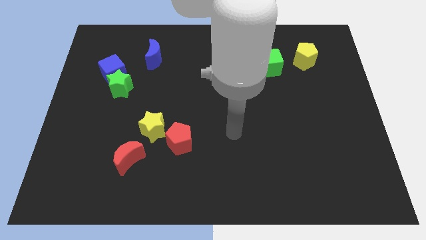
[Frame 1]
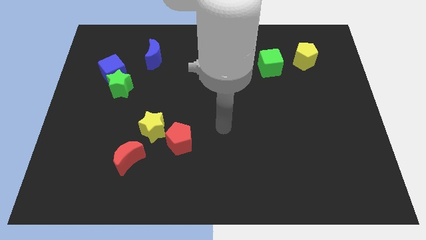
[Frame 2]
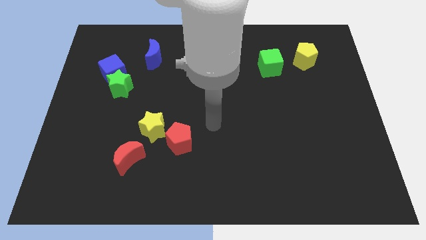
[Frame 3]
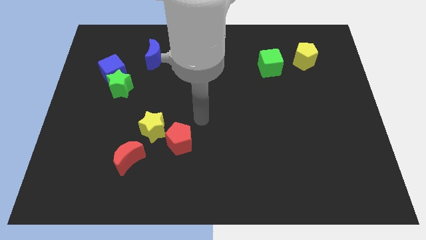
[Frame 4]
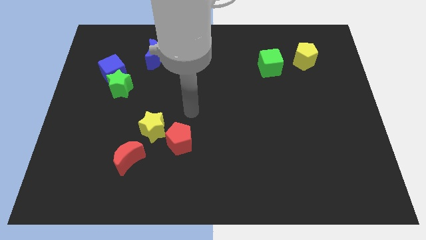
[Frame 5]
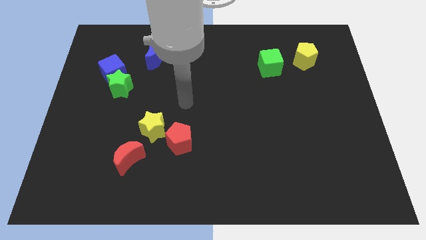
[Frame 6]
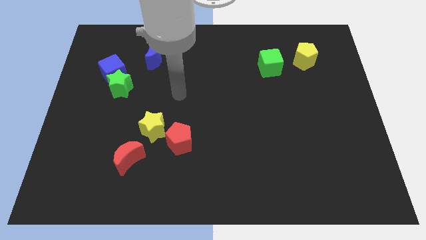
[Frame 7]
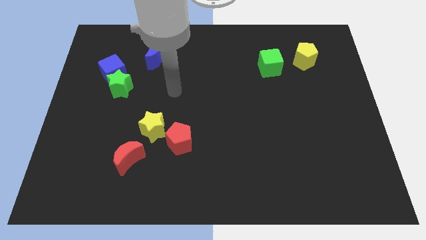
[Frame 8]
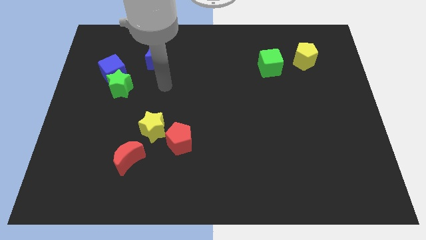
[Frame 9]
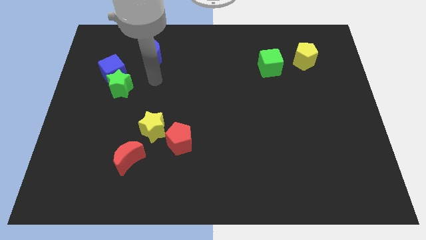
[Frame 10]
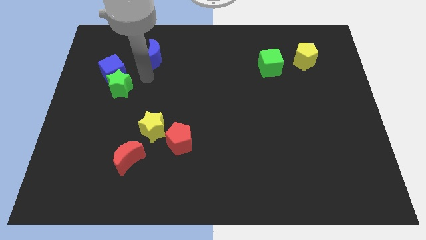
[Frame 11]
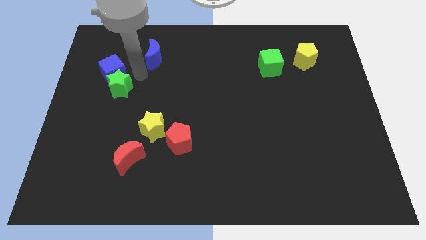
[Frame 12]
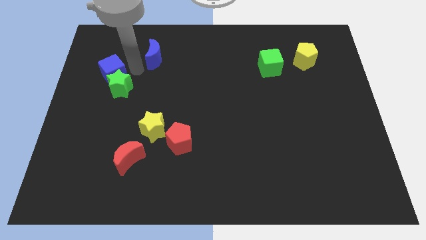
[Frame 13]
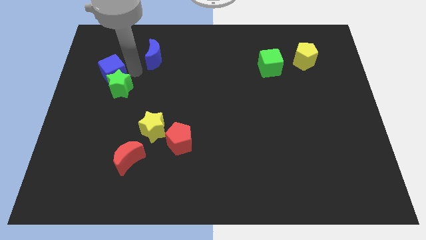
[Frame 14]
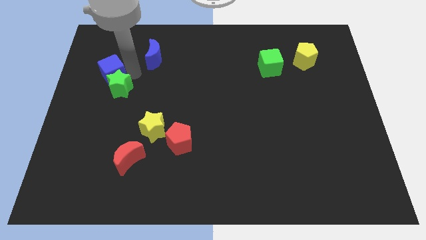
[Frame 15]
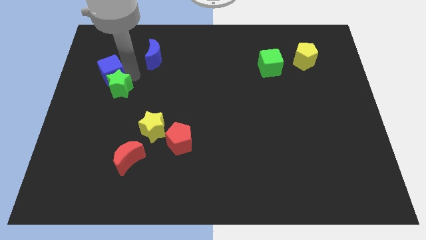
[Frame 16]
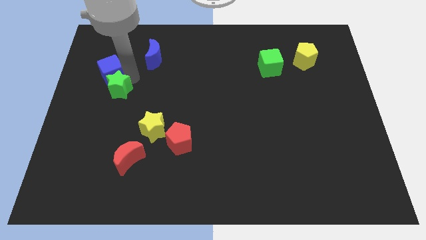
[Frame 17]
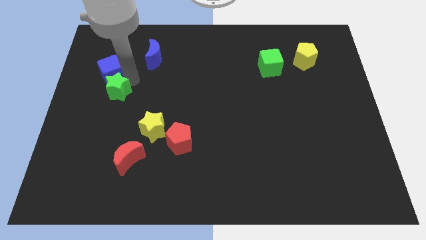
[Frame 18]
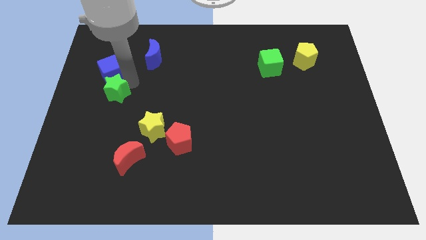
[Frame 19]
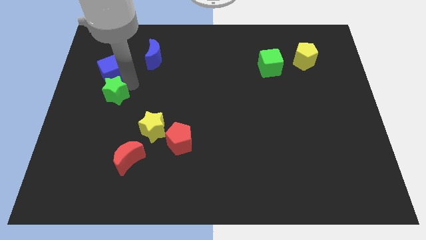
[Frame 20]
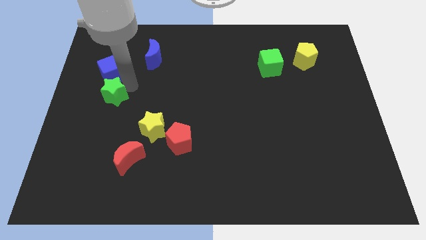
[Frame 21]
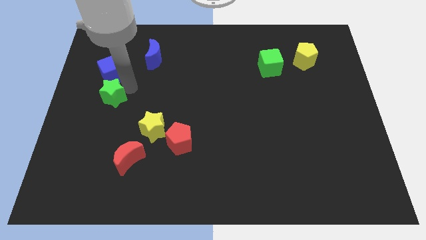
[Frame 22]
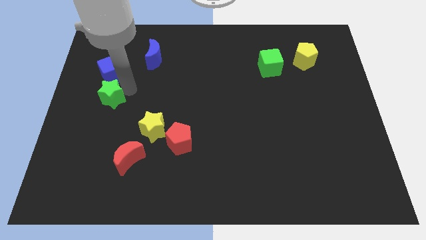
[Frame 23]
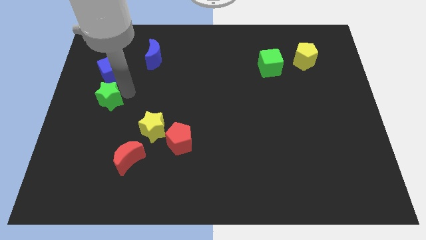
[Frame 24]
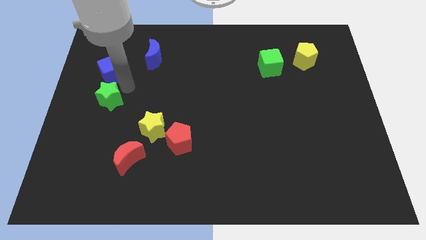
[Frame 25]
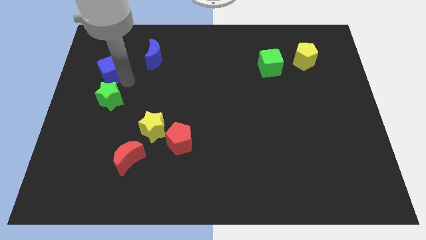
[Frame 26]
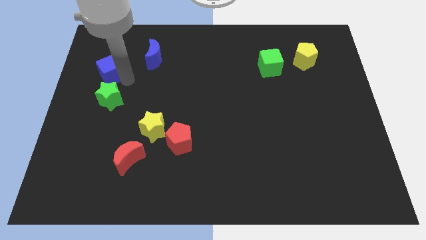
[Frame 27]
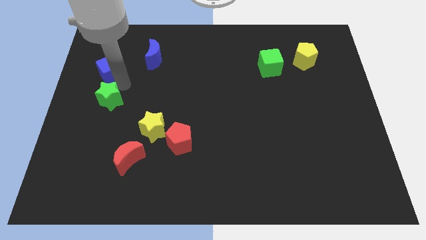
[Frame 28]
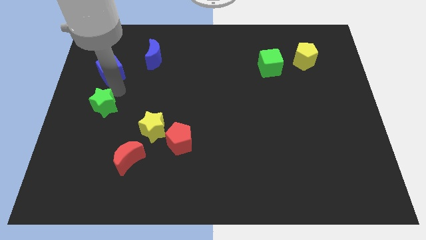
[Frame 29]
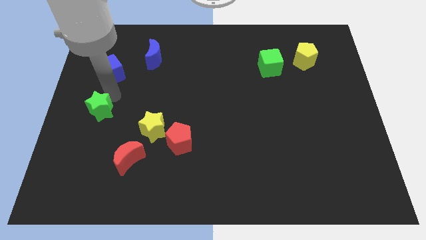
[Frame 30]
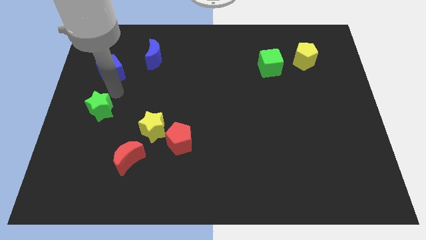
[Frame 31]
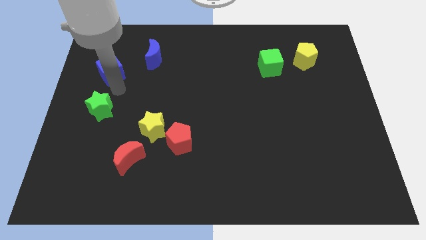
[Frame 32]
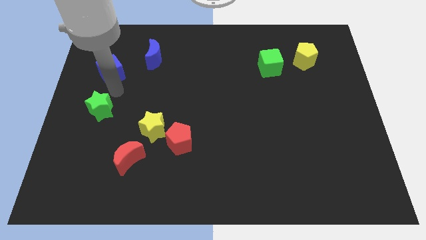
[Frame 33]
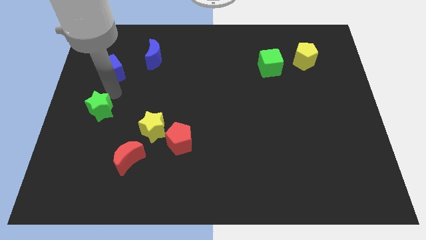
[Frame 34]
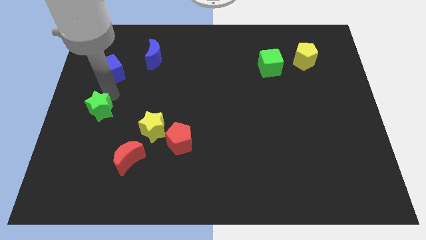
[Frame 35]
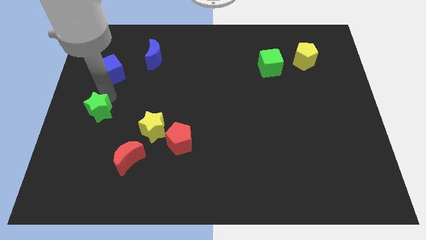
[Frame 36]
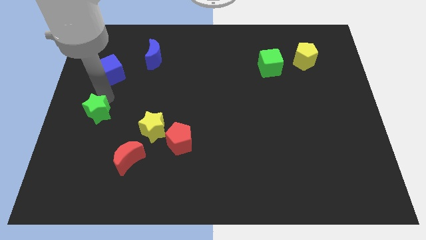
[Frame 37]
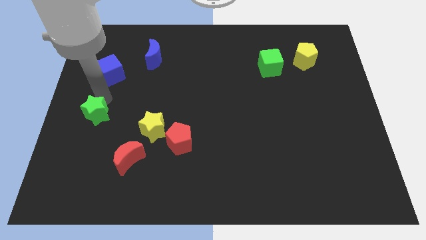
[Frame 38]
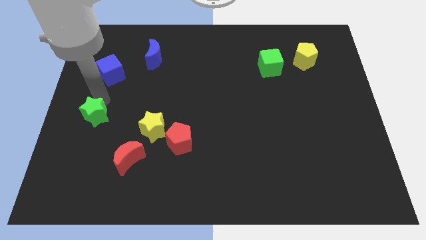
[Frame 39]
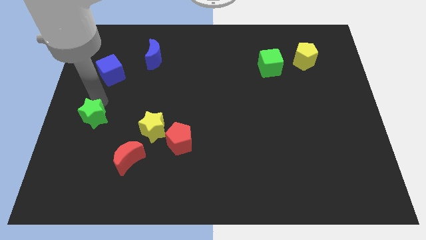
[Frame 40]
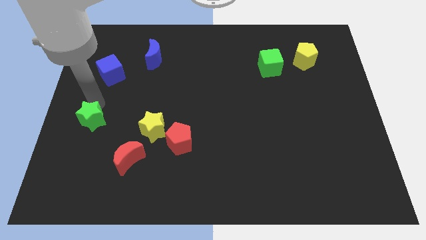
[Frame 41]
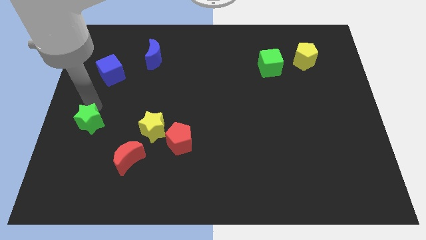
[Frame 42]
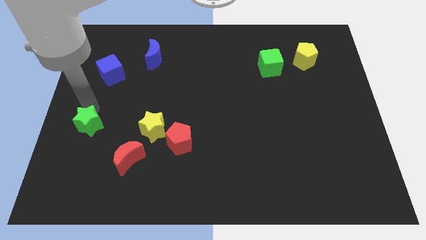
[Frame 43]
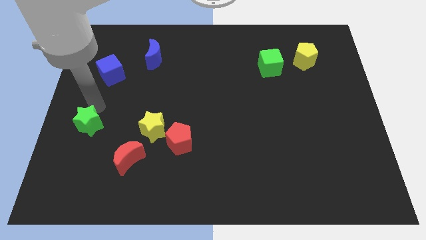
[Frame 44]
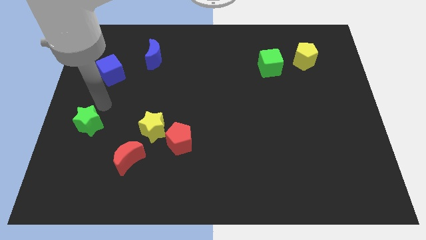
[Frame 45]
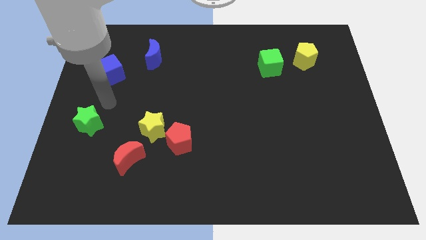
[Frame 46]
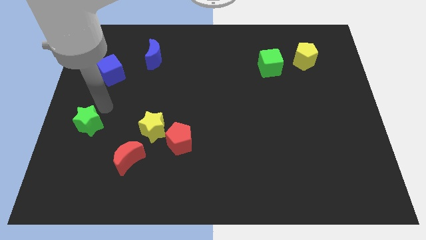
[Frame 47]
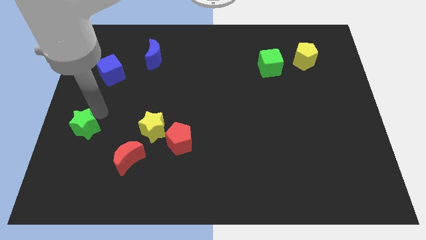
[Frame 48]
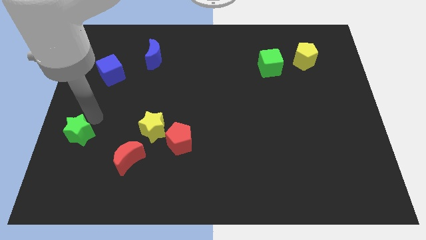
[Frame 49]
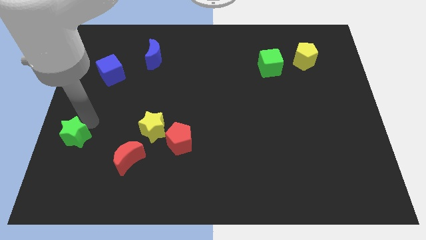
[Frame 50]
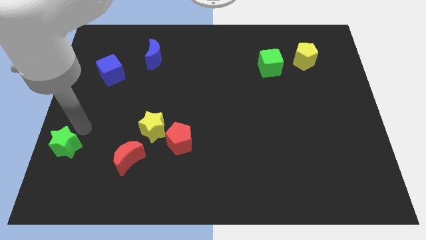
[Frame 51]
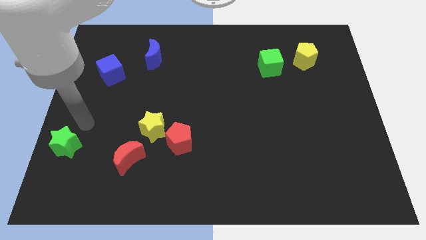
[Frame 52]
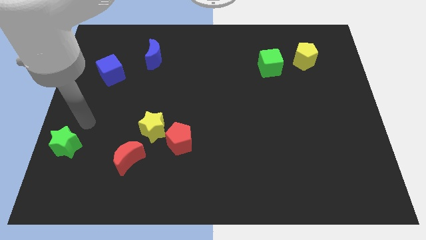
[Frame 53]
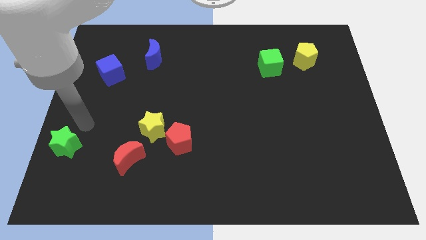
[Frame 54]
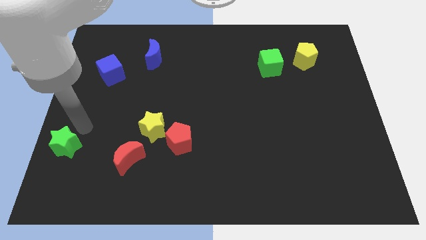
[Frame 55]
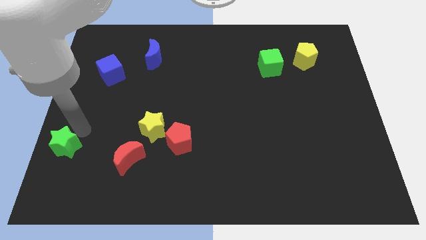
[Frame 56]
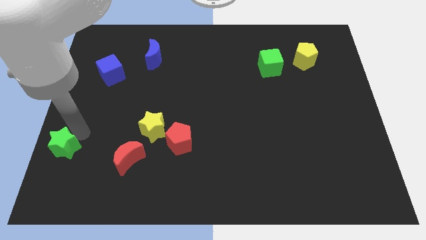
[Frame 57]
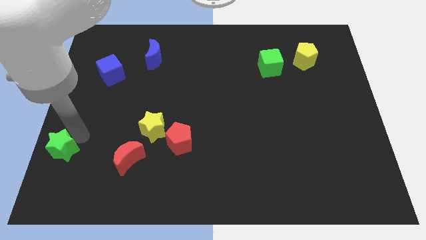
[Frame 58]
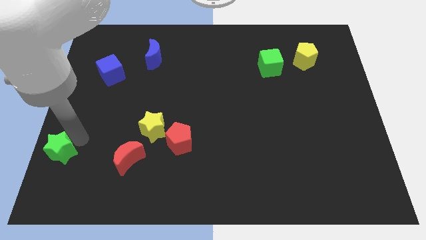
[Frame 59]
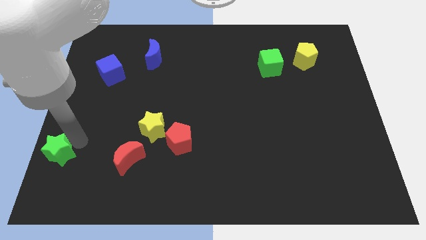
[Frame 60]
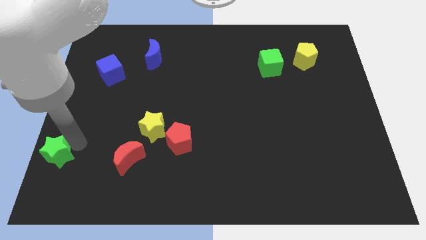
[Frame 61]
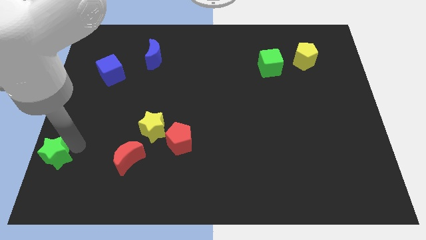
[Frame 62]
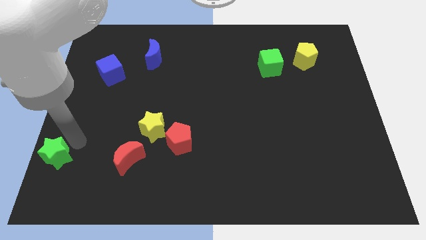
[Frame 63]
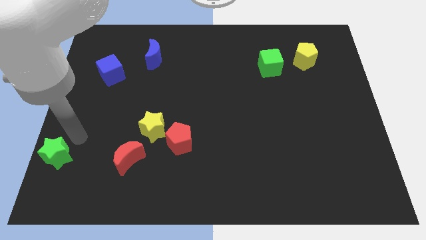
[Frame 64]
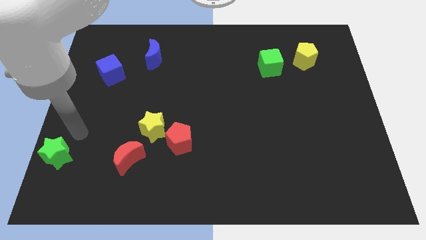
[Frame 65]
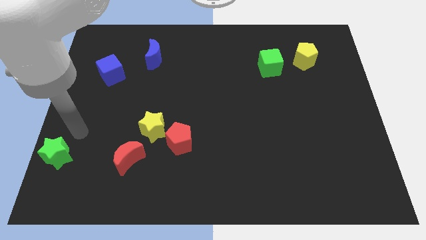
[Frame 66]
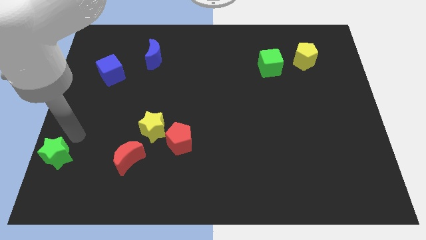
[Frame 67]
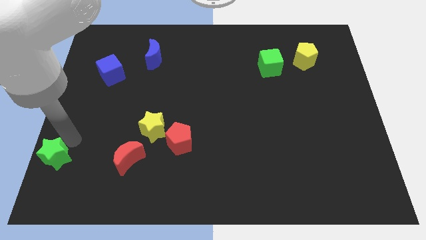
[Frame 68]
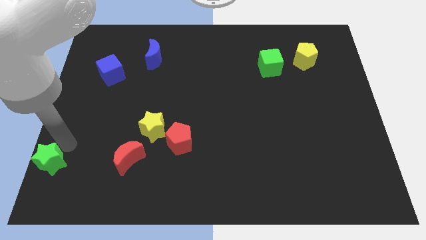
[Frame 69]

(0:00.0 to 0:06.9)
move the green star to the bottom left of the board

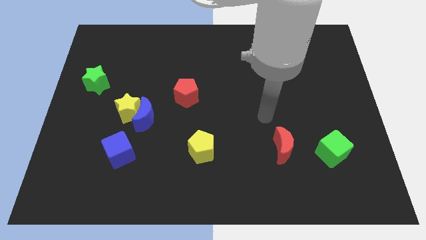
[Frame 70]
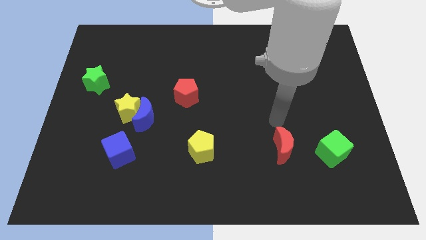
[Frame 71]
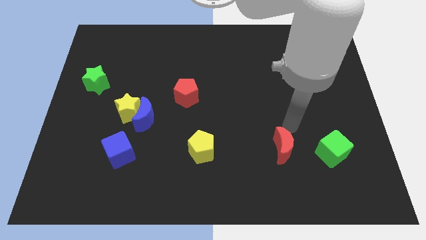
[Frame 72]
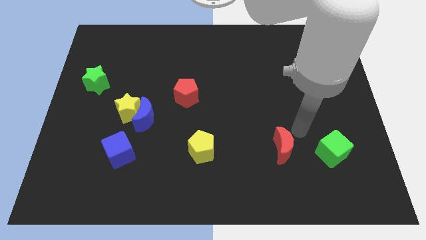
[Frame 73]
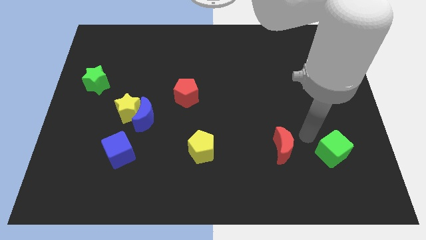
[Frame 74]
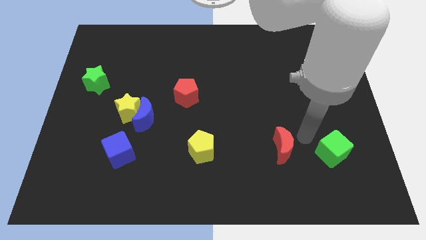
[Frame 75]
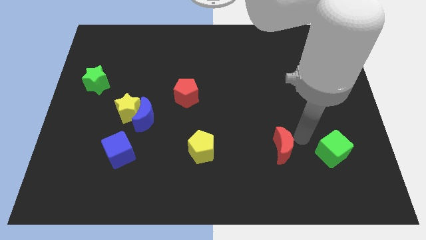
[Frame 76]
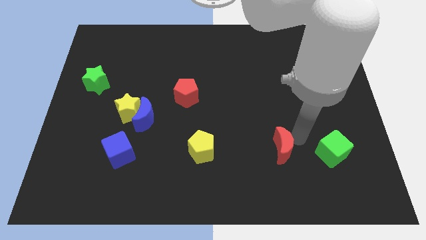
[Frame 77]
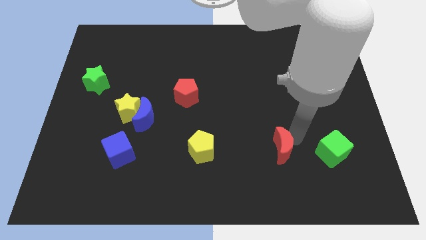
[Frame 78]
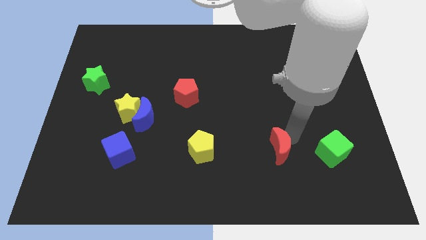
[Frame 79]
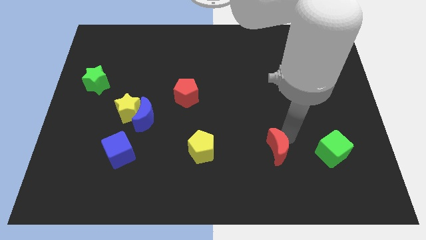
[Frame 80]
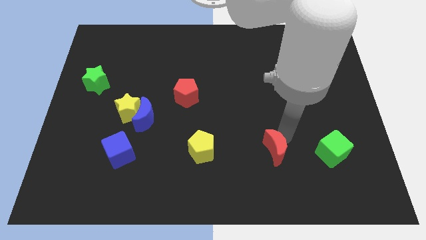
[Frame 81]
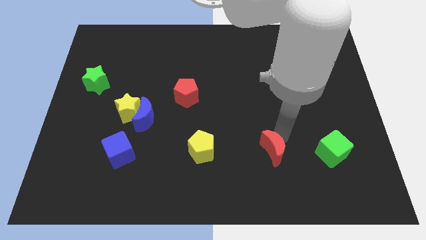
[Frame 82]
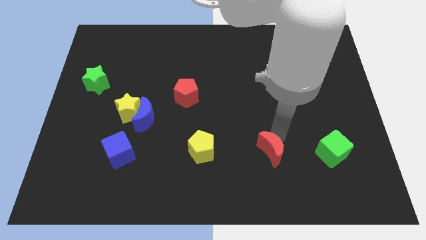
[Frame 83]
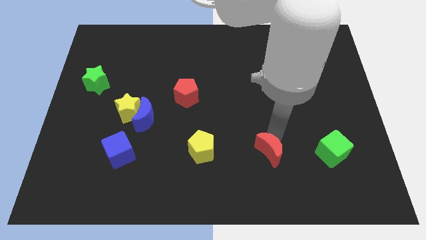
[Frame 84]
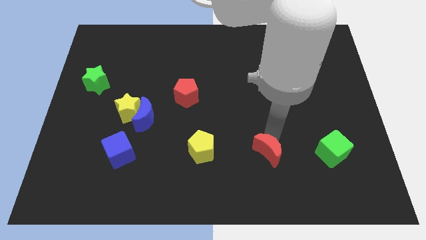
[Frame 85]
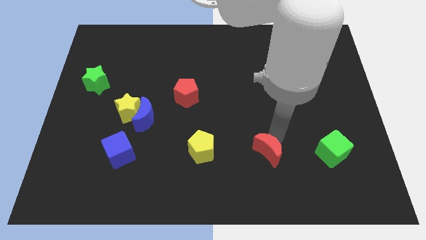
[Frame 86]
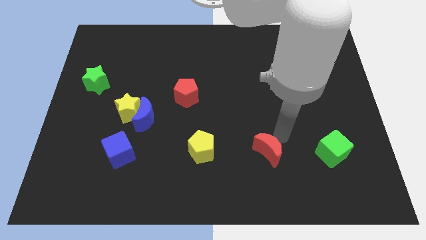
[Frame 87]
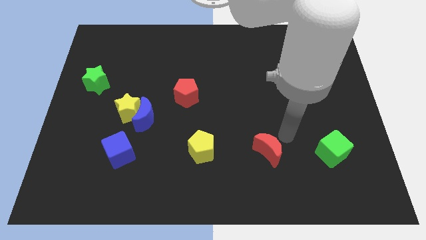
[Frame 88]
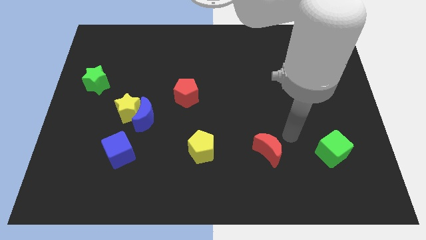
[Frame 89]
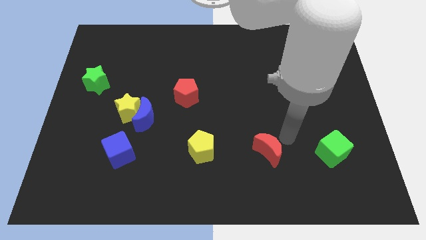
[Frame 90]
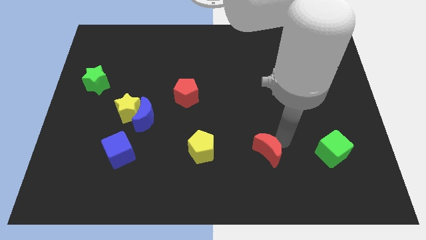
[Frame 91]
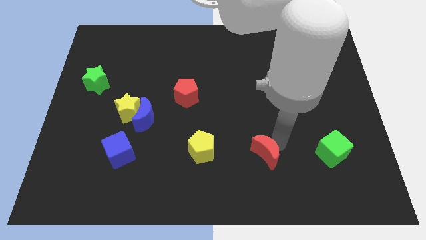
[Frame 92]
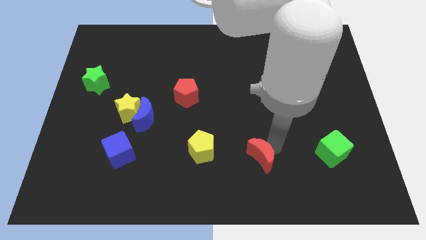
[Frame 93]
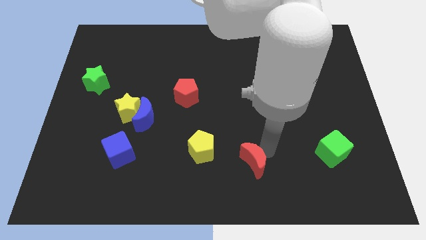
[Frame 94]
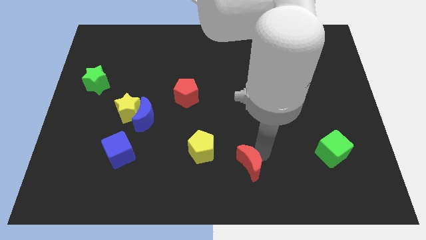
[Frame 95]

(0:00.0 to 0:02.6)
slide the red moon to the bottom
